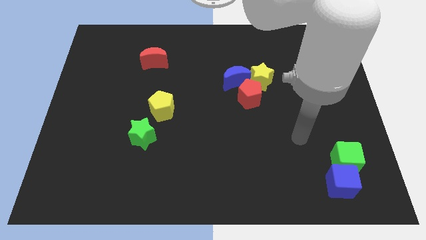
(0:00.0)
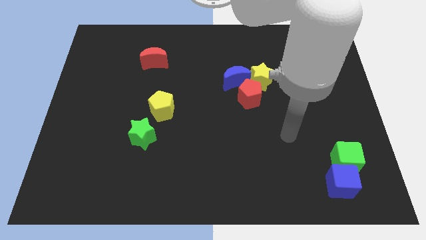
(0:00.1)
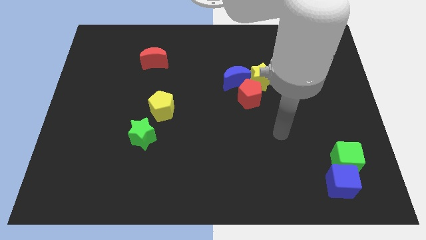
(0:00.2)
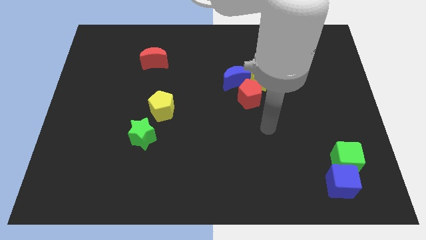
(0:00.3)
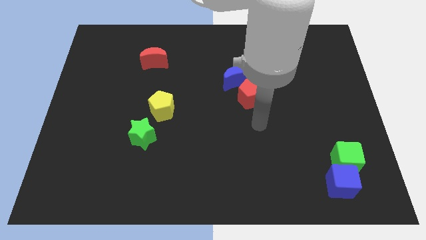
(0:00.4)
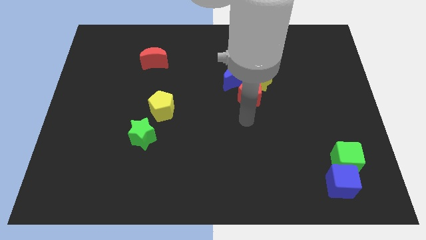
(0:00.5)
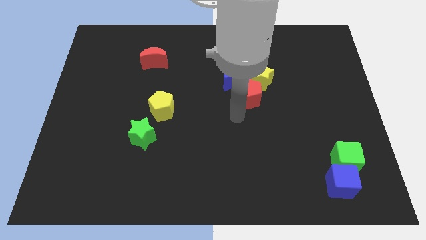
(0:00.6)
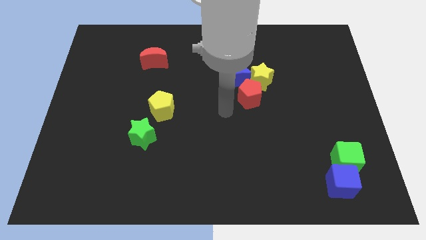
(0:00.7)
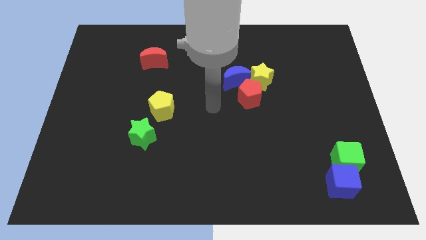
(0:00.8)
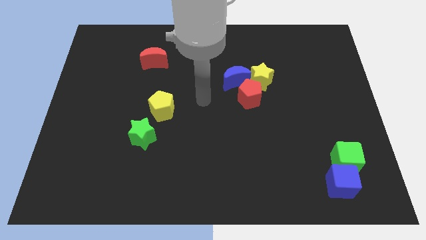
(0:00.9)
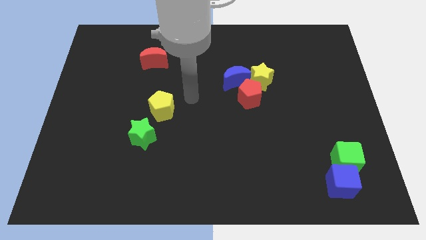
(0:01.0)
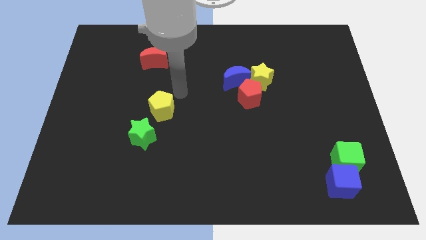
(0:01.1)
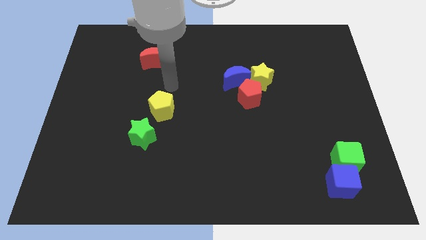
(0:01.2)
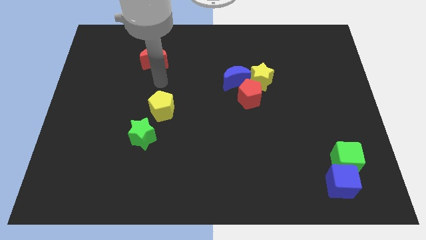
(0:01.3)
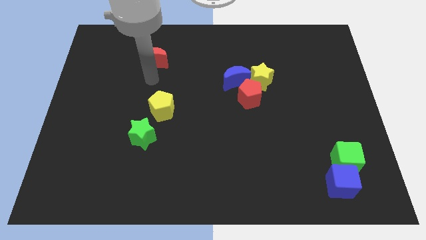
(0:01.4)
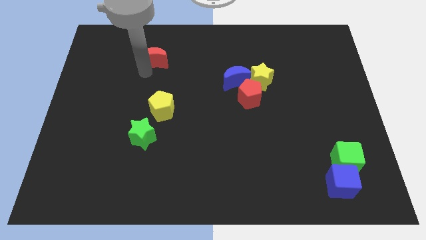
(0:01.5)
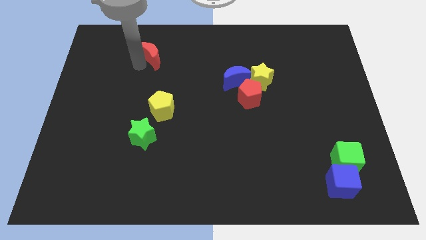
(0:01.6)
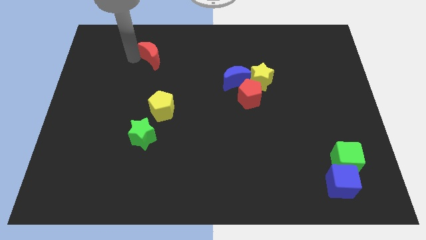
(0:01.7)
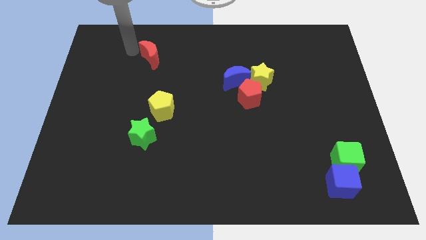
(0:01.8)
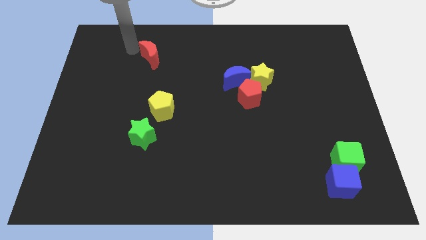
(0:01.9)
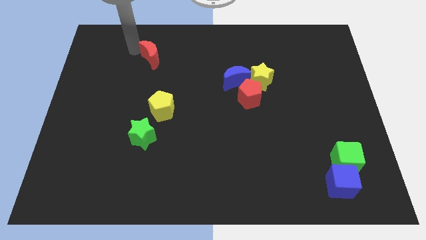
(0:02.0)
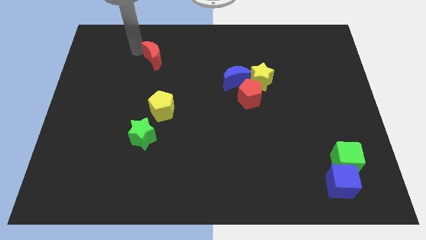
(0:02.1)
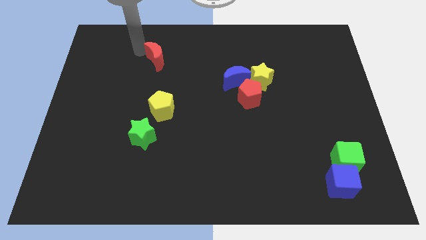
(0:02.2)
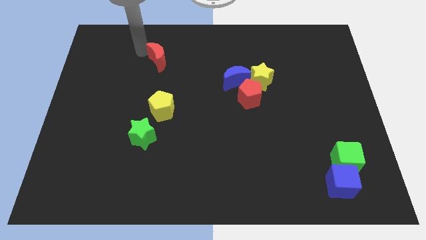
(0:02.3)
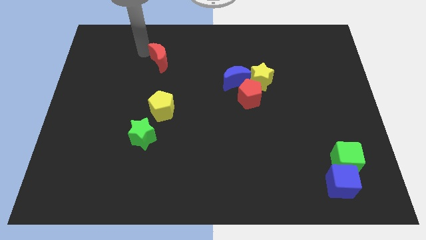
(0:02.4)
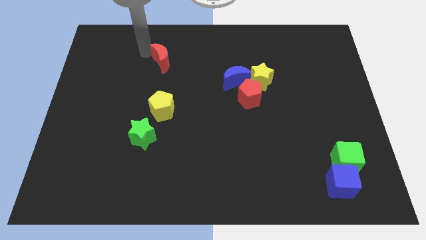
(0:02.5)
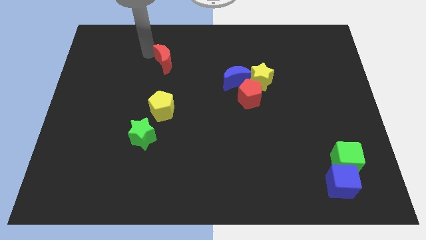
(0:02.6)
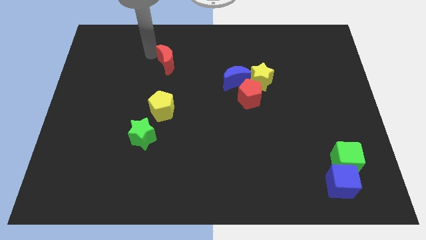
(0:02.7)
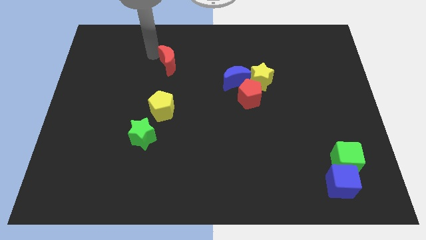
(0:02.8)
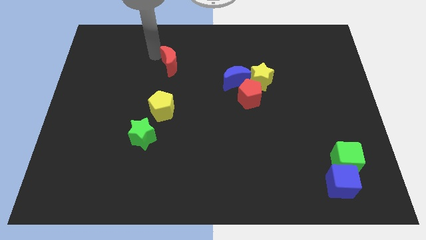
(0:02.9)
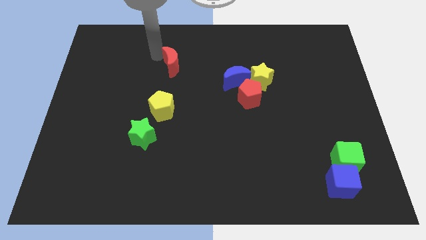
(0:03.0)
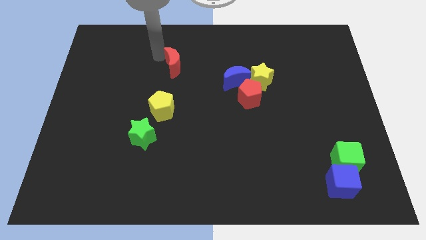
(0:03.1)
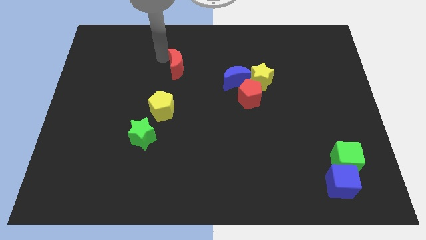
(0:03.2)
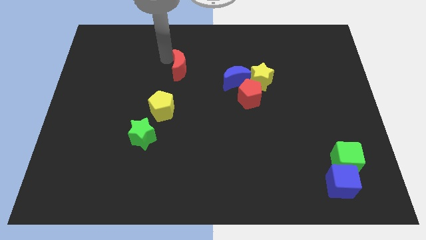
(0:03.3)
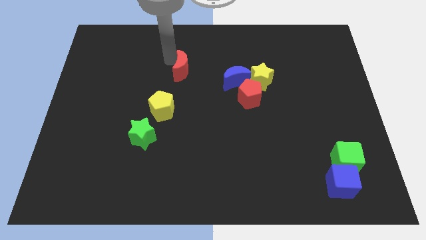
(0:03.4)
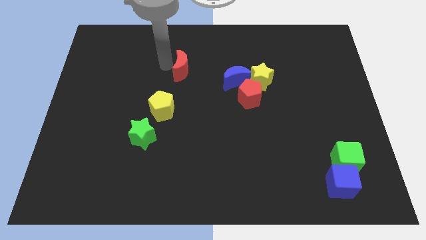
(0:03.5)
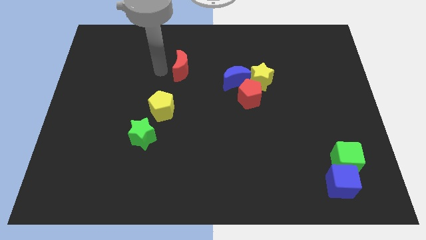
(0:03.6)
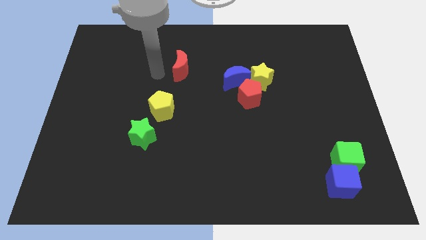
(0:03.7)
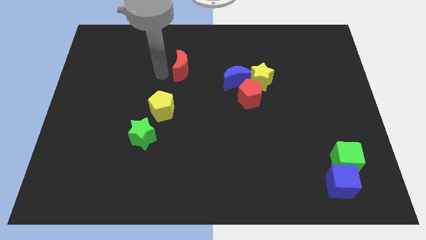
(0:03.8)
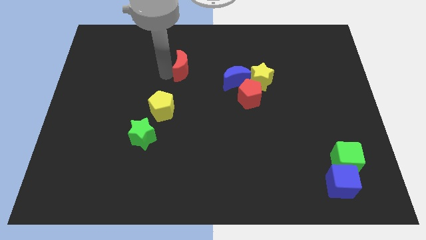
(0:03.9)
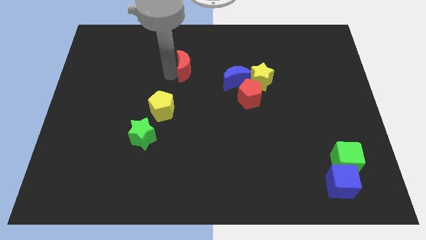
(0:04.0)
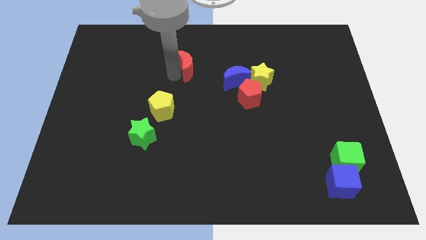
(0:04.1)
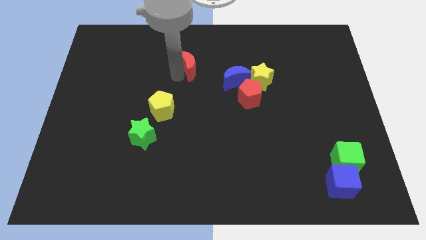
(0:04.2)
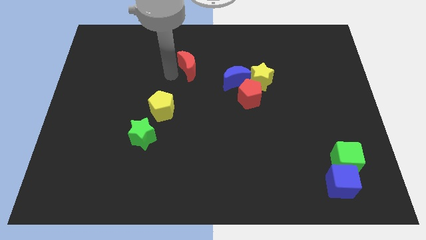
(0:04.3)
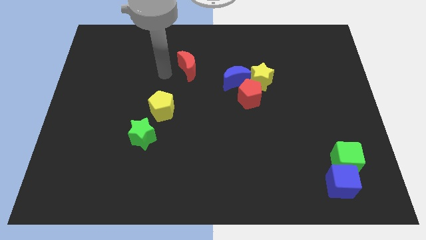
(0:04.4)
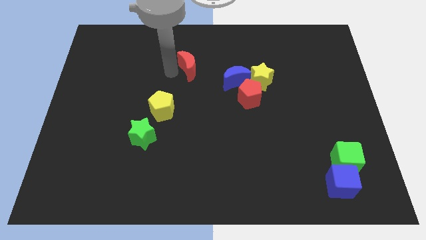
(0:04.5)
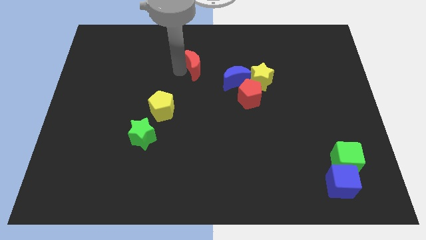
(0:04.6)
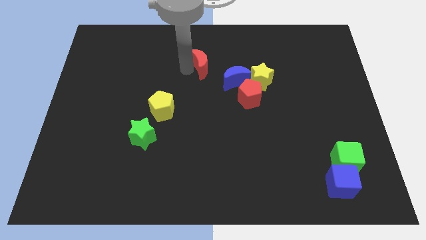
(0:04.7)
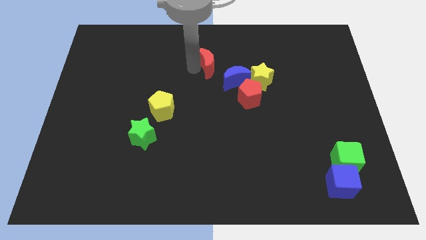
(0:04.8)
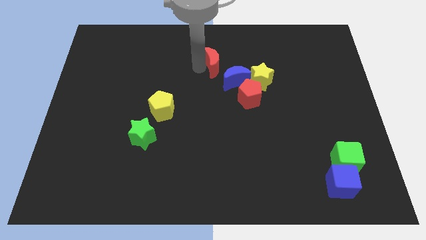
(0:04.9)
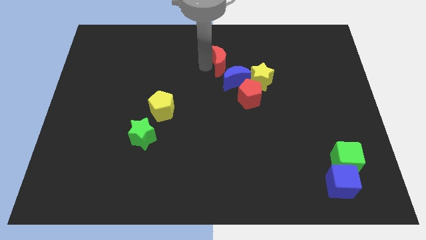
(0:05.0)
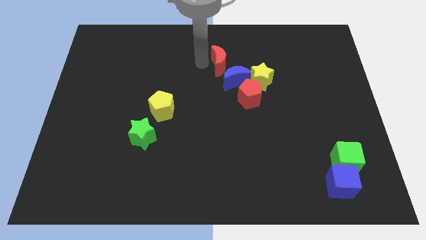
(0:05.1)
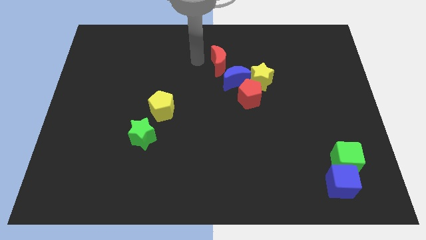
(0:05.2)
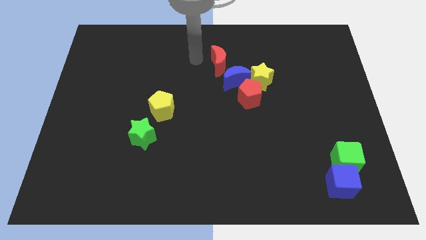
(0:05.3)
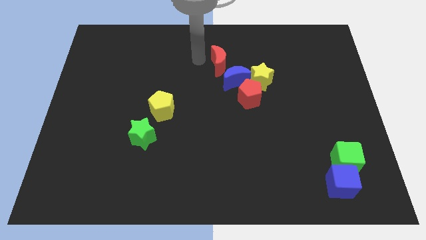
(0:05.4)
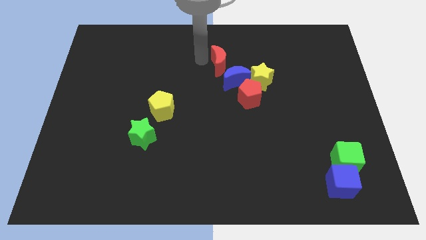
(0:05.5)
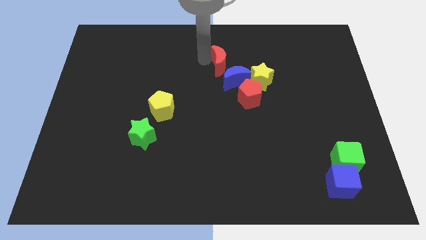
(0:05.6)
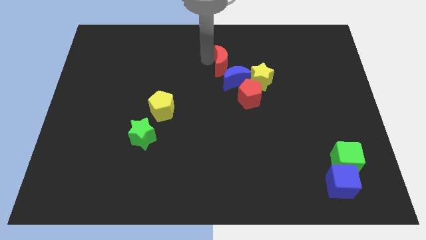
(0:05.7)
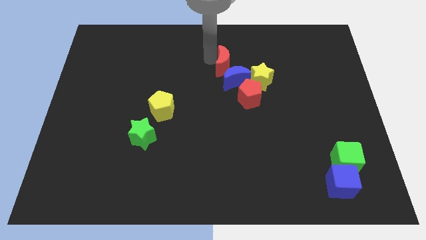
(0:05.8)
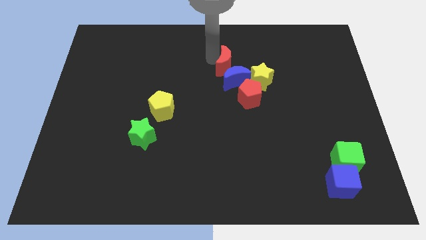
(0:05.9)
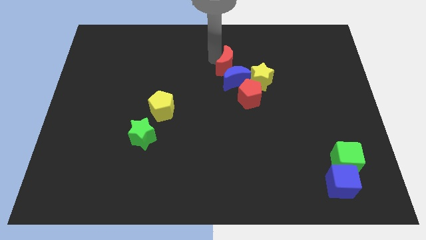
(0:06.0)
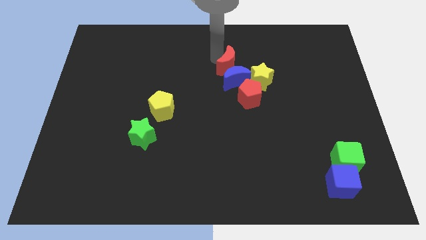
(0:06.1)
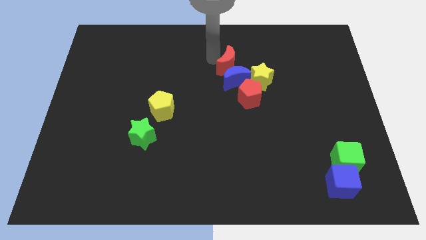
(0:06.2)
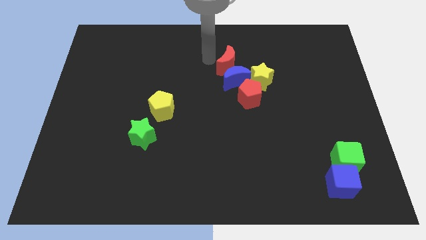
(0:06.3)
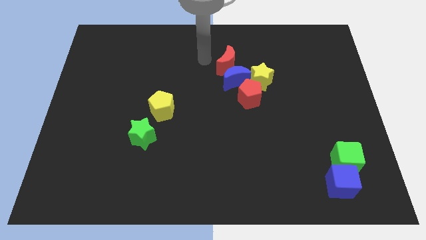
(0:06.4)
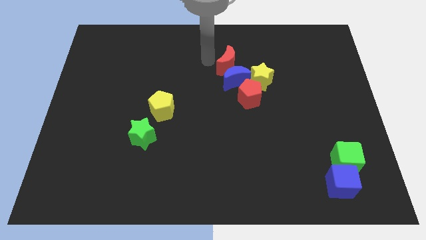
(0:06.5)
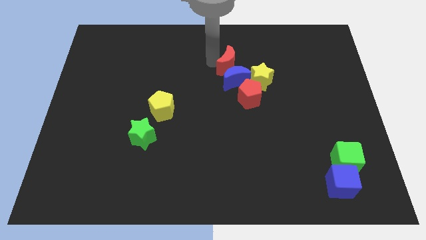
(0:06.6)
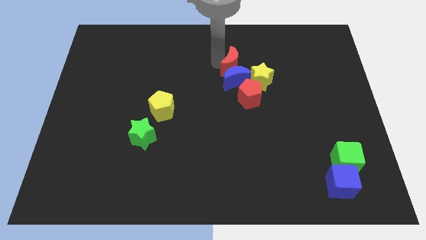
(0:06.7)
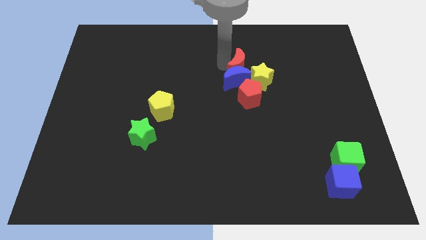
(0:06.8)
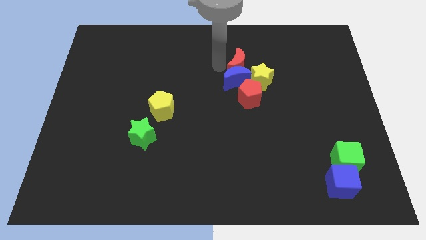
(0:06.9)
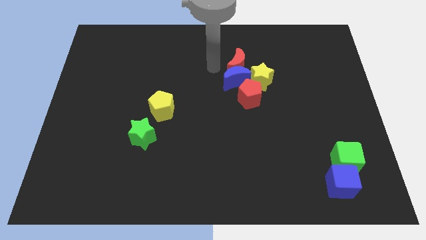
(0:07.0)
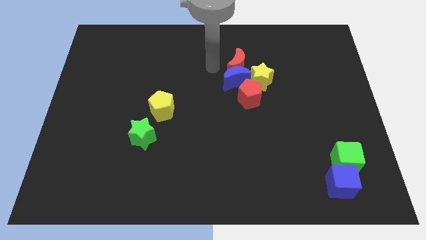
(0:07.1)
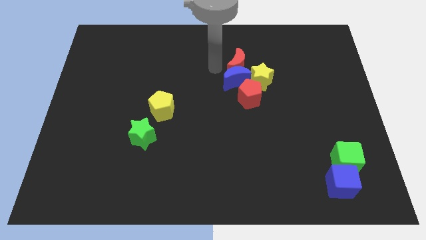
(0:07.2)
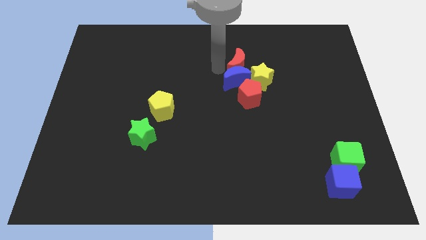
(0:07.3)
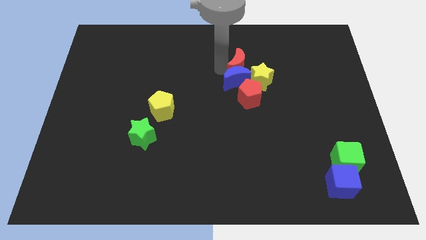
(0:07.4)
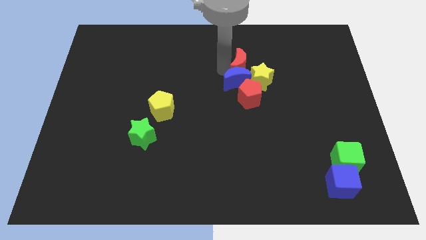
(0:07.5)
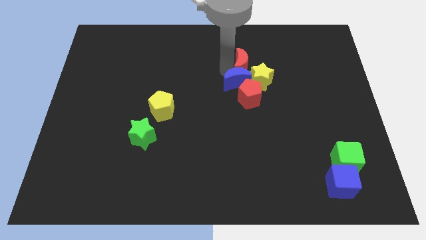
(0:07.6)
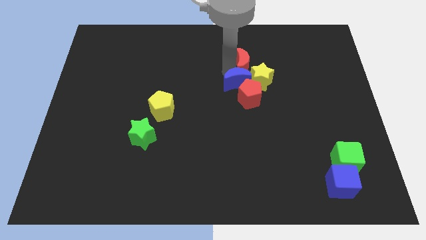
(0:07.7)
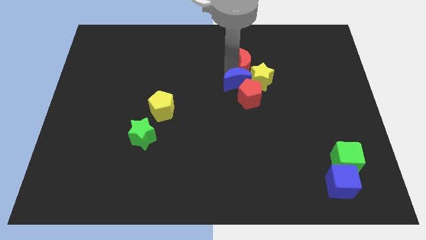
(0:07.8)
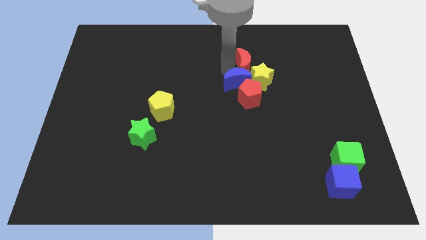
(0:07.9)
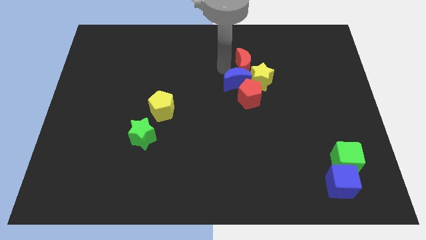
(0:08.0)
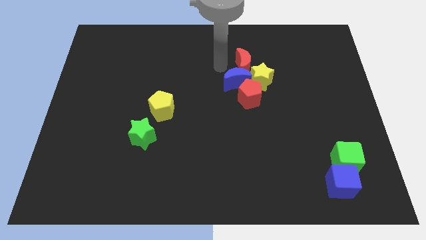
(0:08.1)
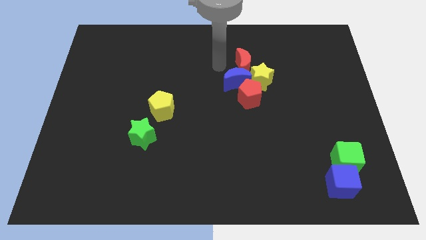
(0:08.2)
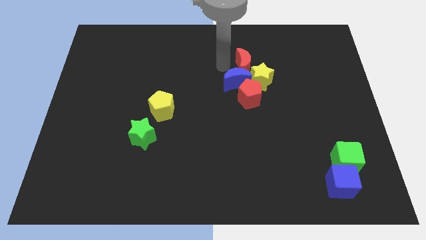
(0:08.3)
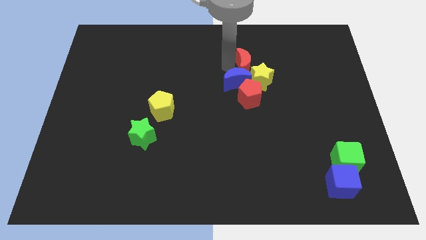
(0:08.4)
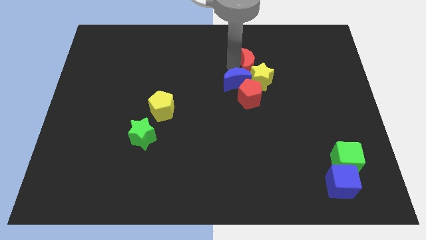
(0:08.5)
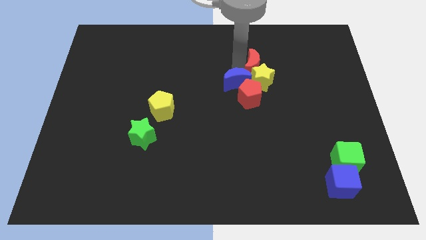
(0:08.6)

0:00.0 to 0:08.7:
push the red moon just right of the blue moon
